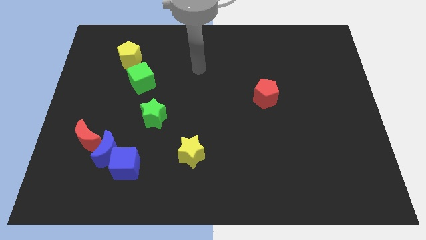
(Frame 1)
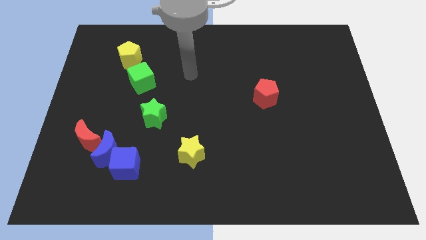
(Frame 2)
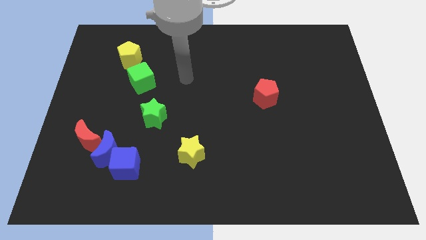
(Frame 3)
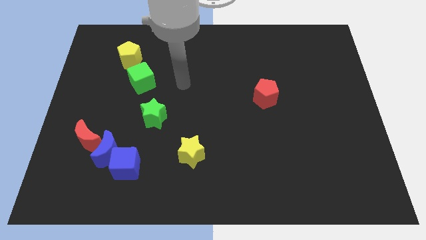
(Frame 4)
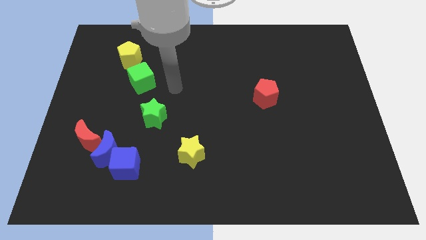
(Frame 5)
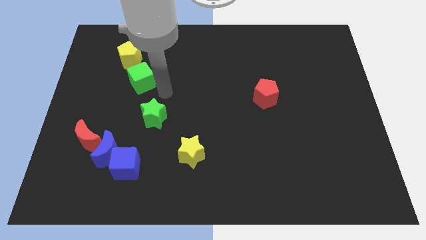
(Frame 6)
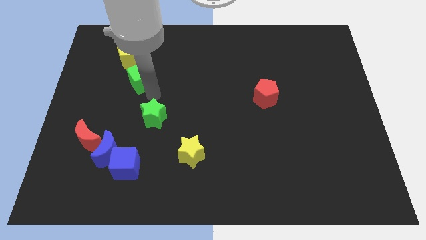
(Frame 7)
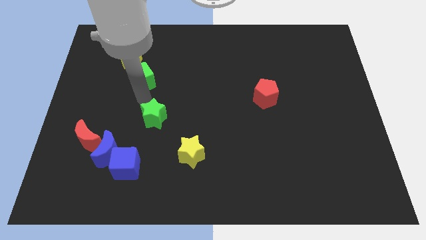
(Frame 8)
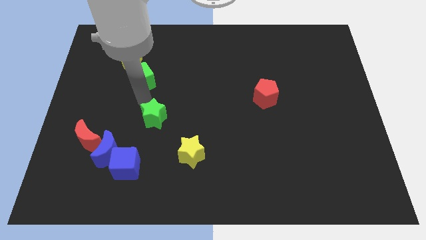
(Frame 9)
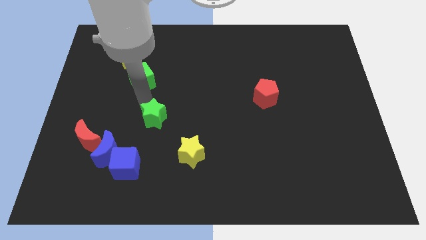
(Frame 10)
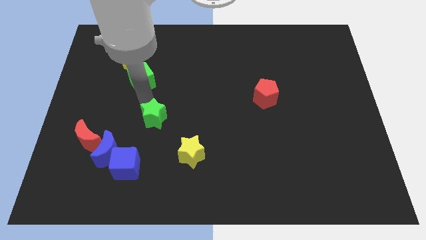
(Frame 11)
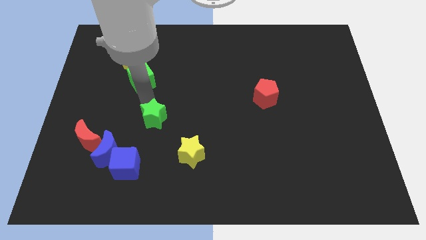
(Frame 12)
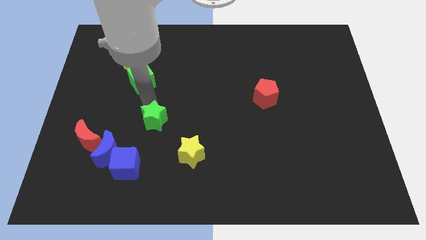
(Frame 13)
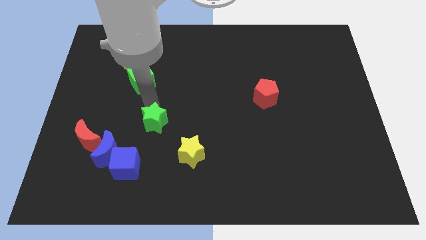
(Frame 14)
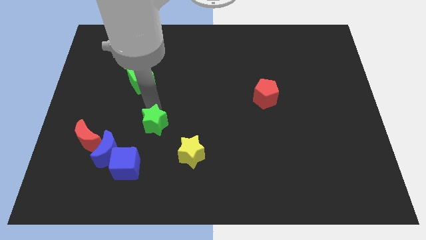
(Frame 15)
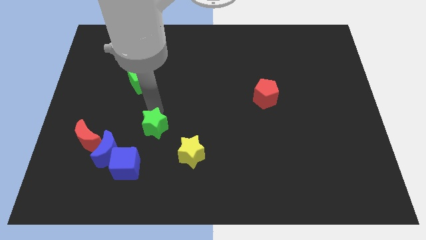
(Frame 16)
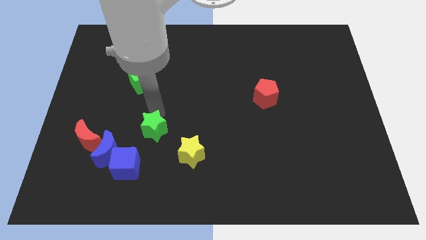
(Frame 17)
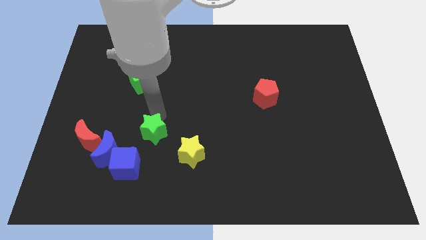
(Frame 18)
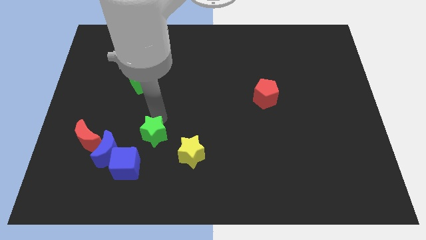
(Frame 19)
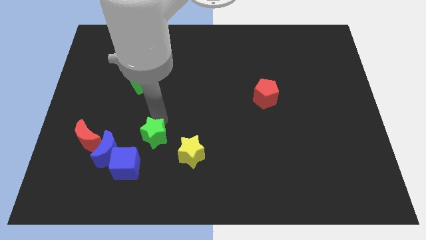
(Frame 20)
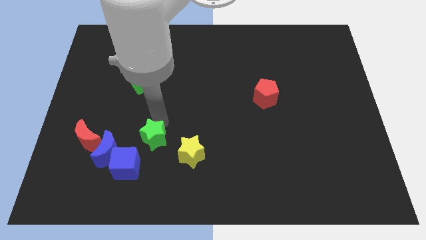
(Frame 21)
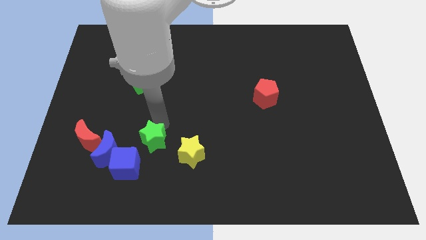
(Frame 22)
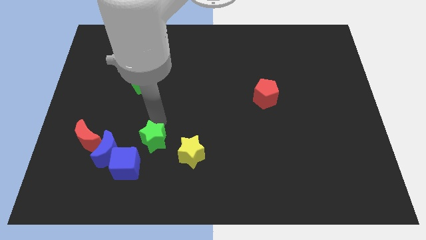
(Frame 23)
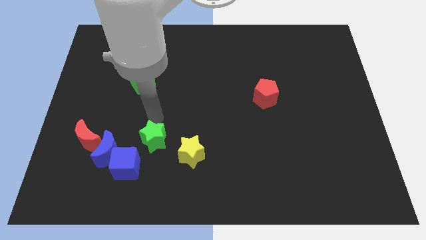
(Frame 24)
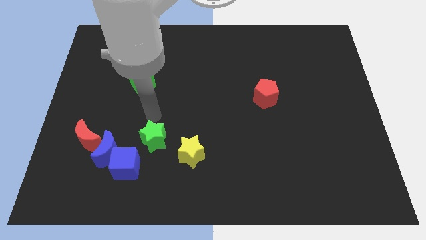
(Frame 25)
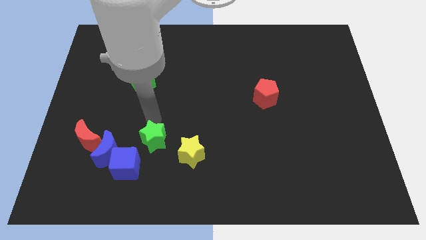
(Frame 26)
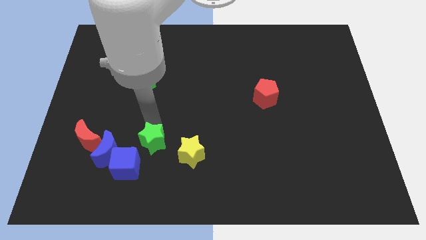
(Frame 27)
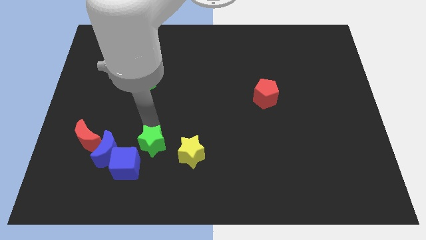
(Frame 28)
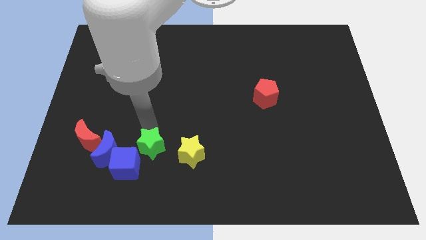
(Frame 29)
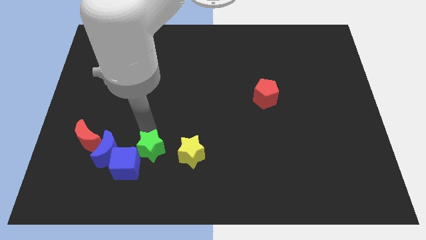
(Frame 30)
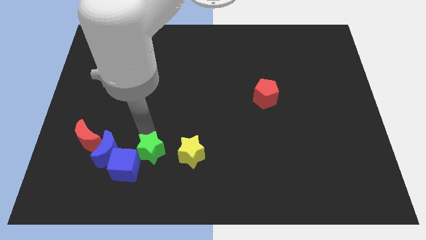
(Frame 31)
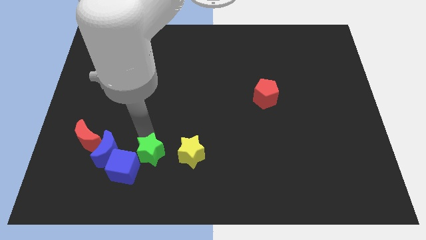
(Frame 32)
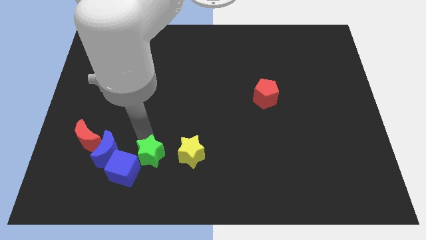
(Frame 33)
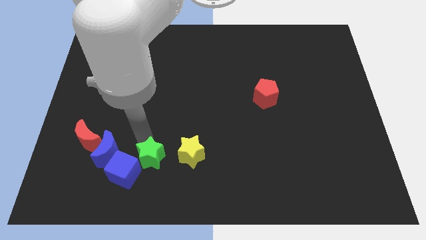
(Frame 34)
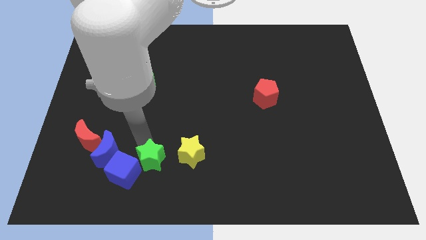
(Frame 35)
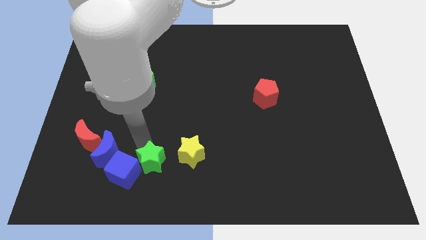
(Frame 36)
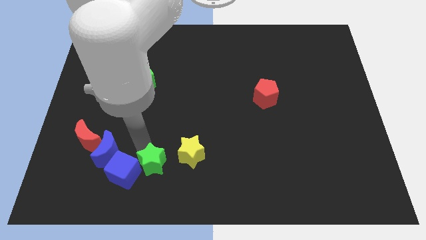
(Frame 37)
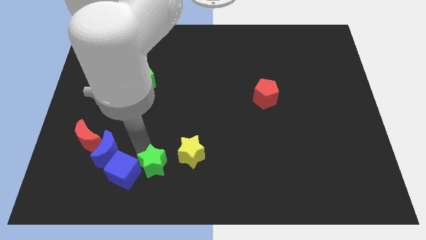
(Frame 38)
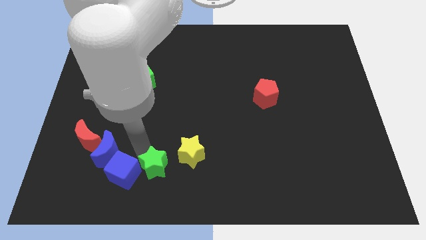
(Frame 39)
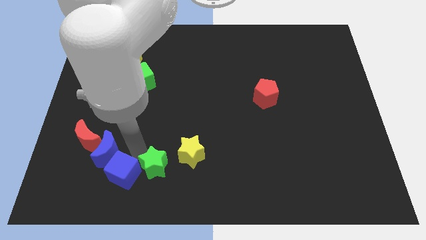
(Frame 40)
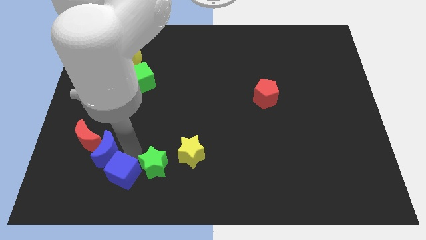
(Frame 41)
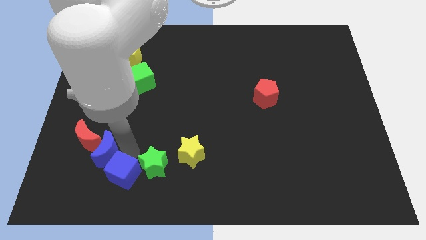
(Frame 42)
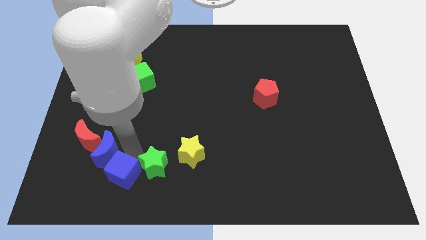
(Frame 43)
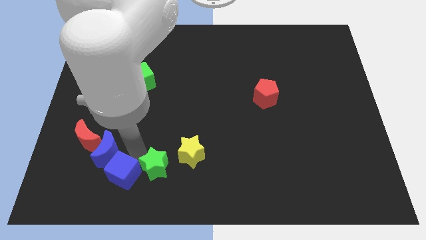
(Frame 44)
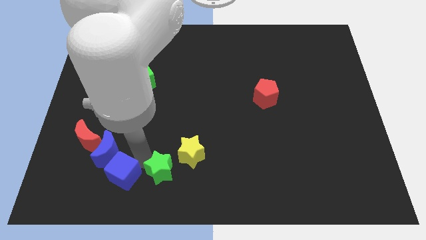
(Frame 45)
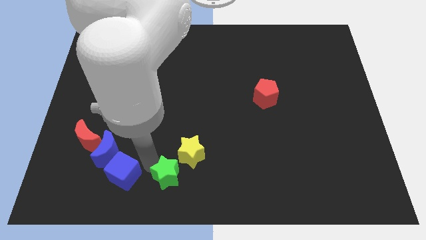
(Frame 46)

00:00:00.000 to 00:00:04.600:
move the green star to the bottom

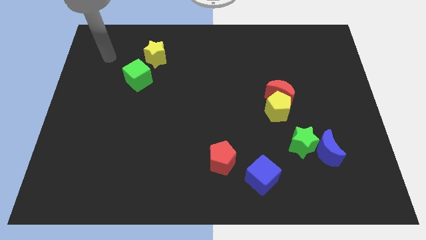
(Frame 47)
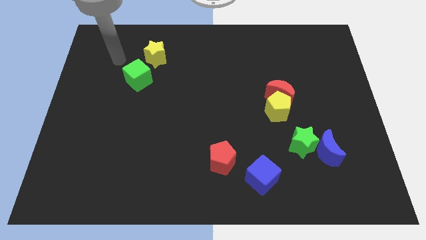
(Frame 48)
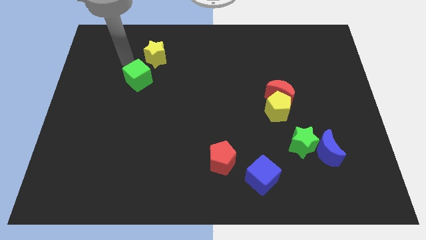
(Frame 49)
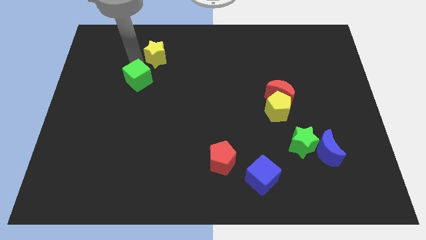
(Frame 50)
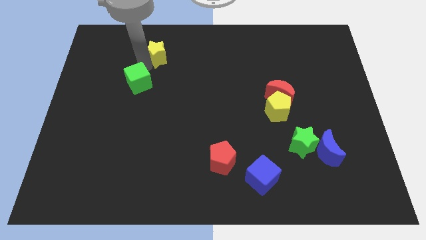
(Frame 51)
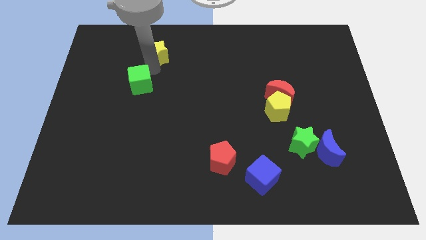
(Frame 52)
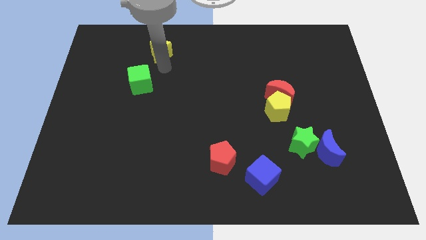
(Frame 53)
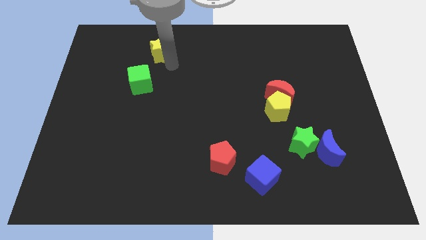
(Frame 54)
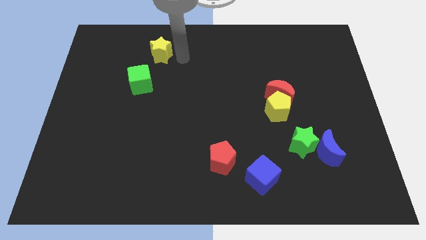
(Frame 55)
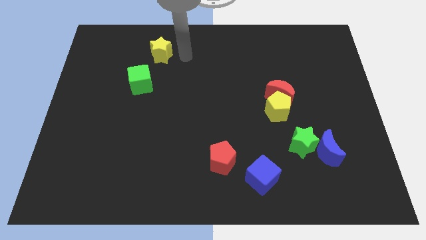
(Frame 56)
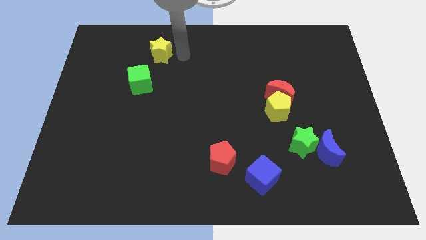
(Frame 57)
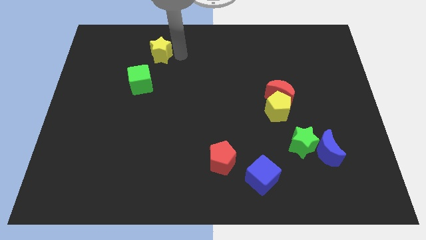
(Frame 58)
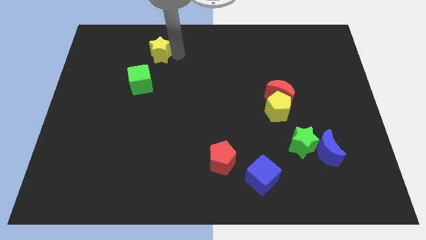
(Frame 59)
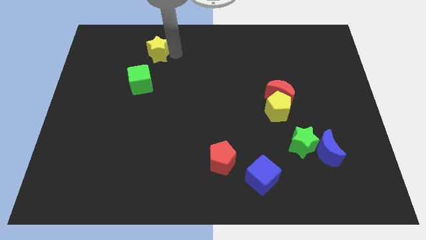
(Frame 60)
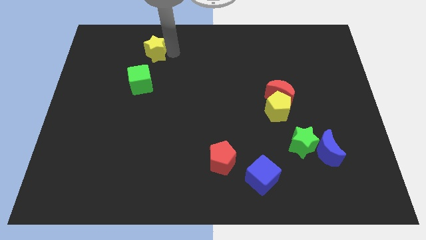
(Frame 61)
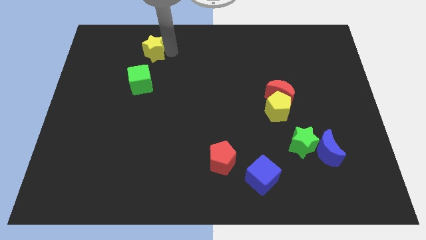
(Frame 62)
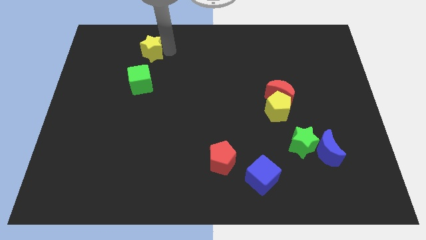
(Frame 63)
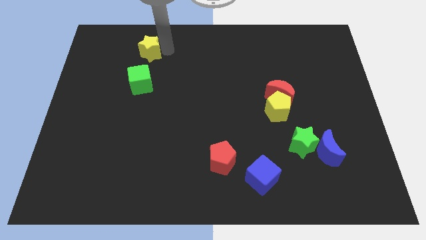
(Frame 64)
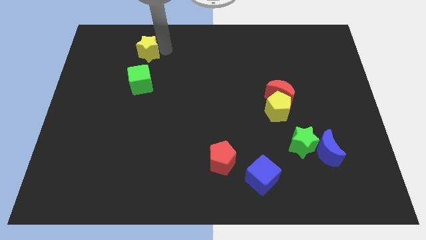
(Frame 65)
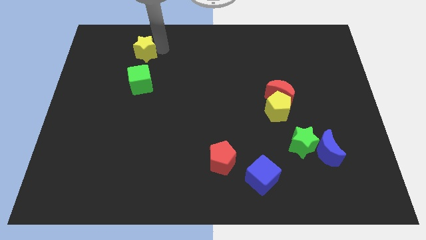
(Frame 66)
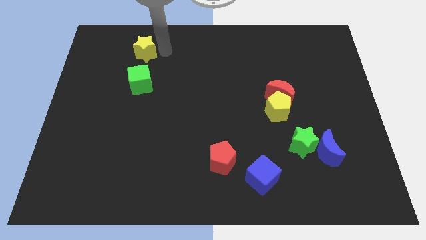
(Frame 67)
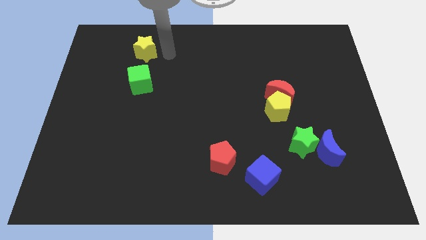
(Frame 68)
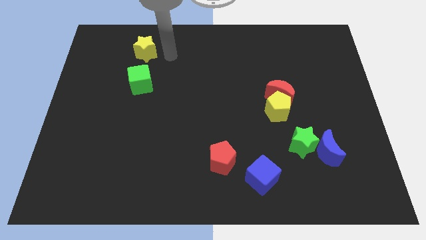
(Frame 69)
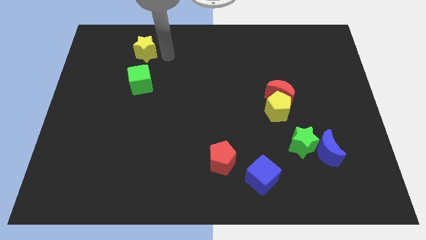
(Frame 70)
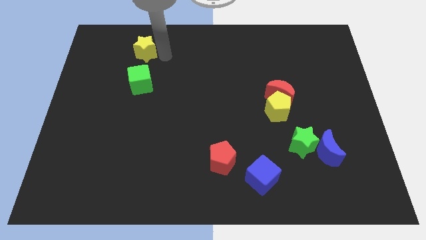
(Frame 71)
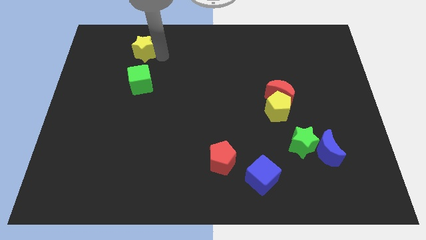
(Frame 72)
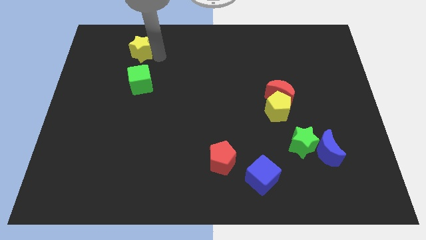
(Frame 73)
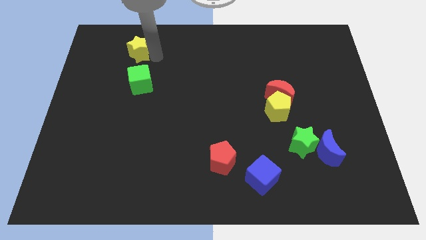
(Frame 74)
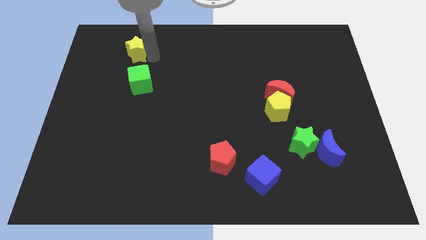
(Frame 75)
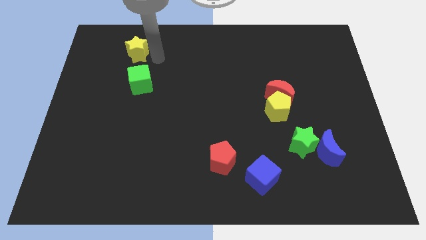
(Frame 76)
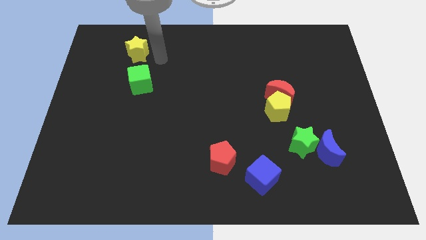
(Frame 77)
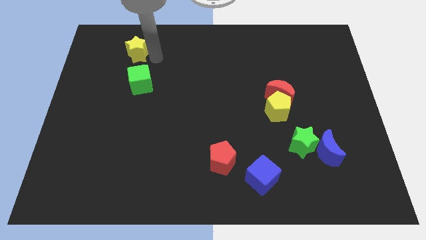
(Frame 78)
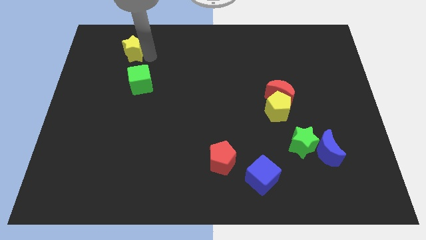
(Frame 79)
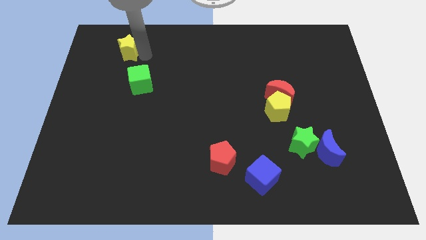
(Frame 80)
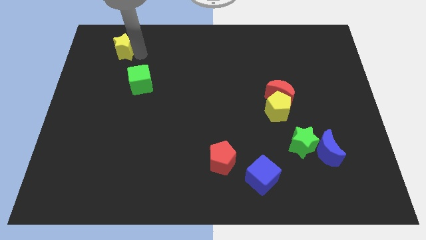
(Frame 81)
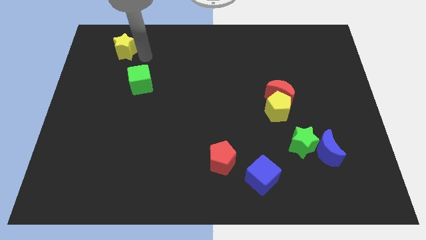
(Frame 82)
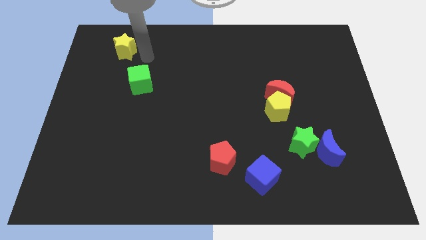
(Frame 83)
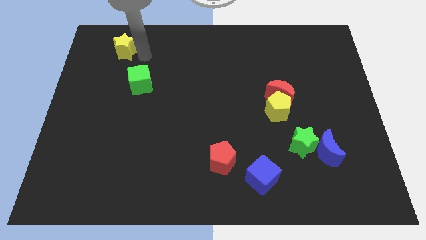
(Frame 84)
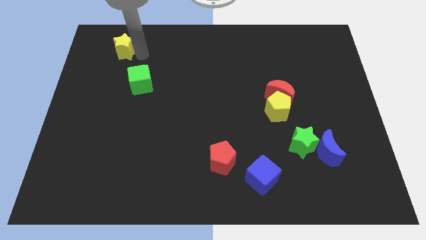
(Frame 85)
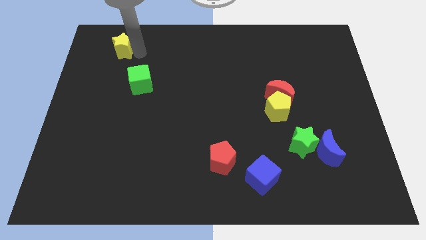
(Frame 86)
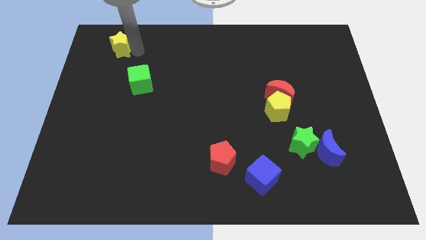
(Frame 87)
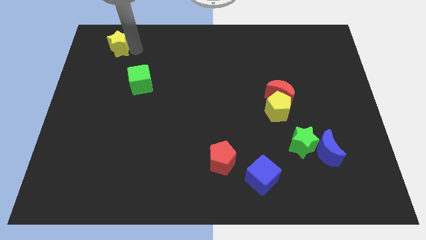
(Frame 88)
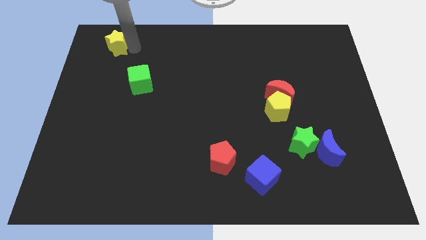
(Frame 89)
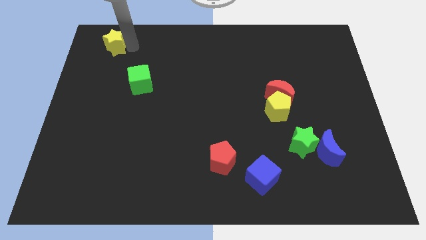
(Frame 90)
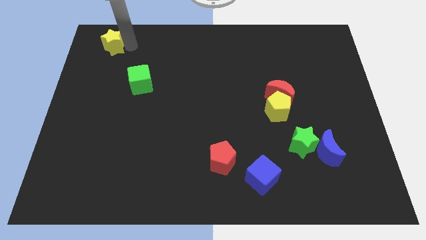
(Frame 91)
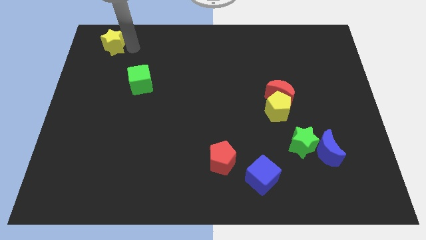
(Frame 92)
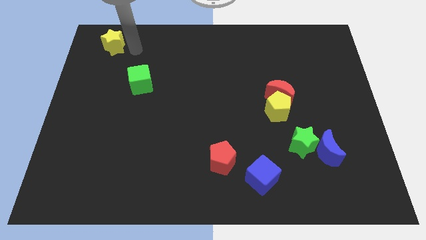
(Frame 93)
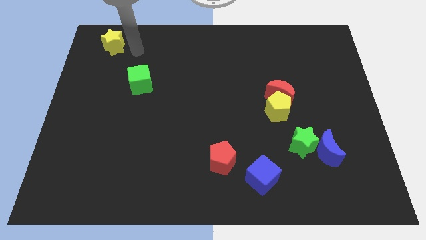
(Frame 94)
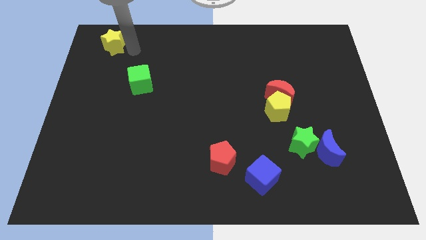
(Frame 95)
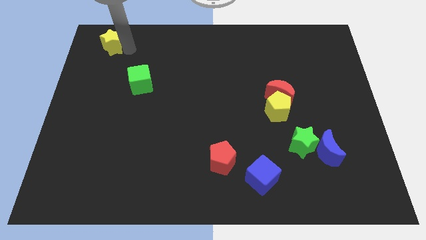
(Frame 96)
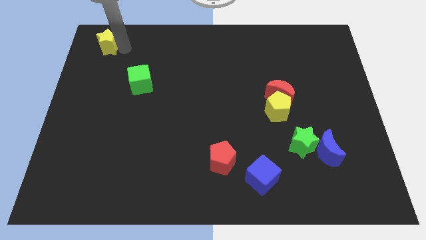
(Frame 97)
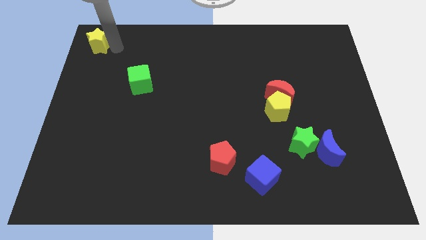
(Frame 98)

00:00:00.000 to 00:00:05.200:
put the yellow star to the upper left corner
